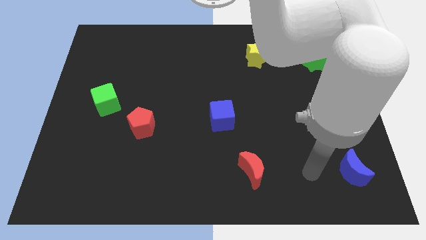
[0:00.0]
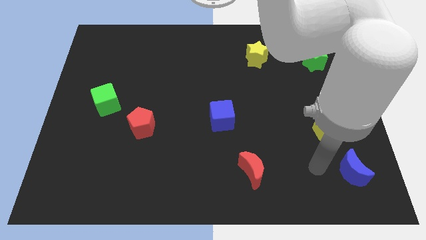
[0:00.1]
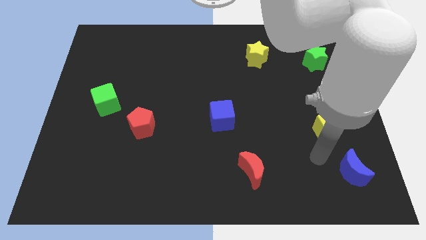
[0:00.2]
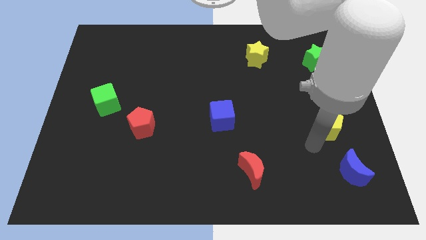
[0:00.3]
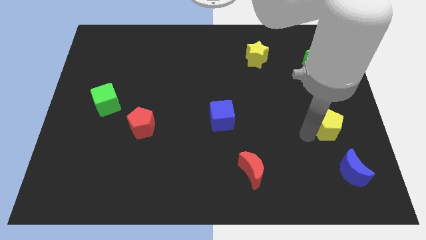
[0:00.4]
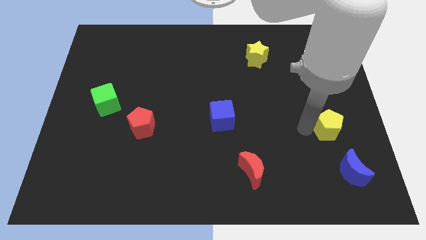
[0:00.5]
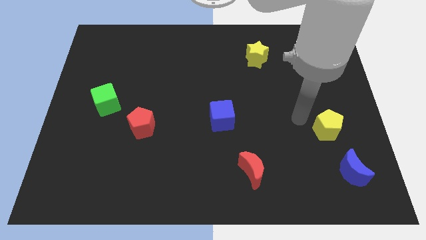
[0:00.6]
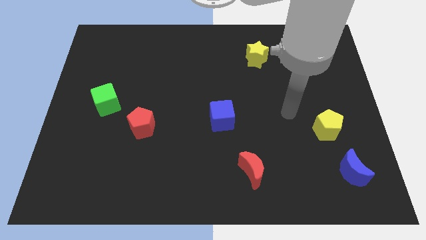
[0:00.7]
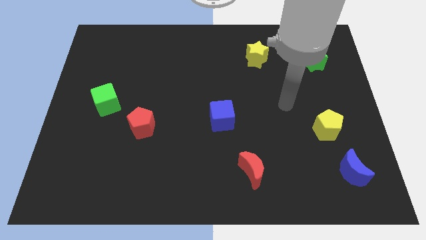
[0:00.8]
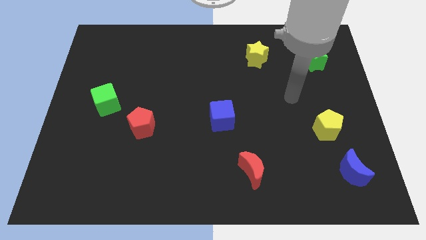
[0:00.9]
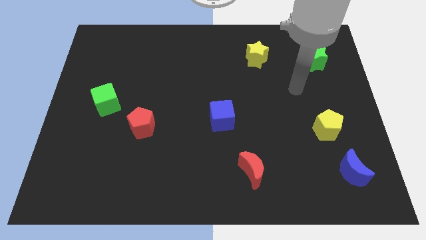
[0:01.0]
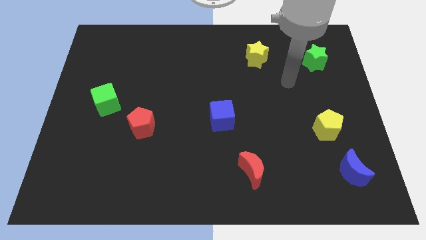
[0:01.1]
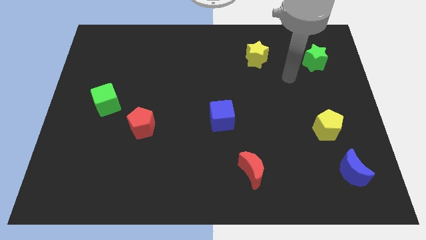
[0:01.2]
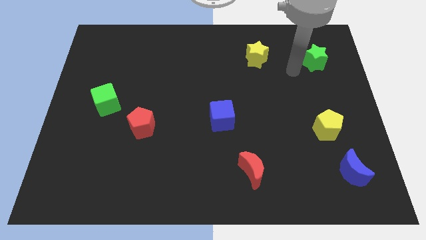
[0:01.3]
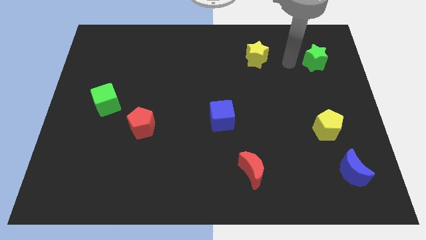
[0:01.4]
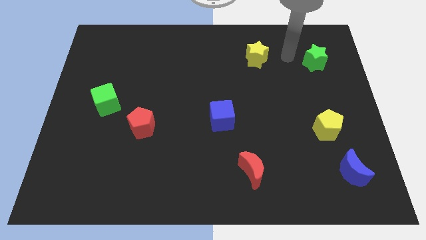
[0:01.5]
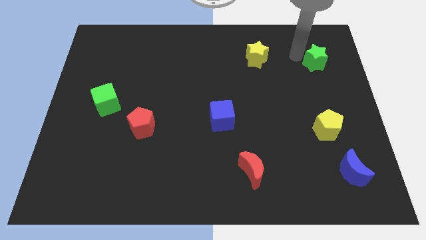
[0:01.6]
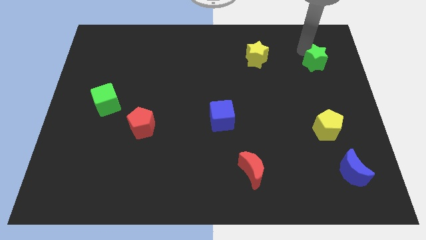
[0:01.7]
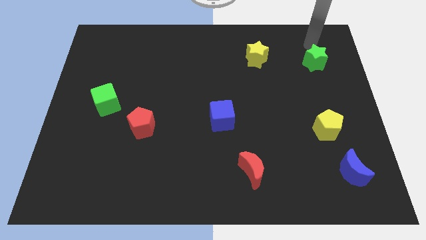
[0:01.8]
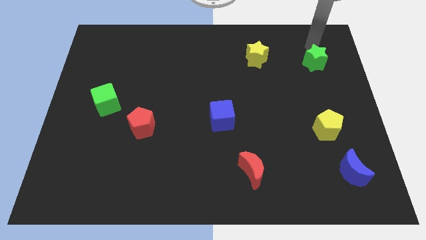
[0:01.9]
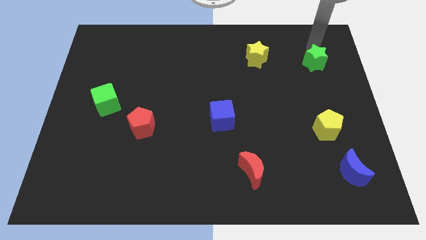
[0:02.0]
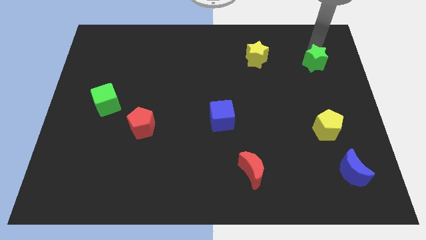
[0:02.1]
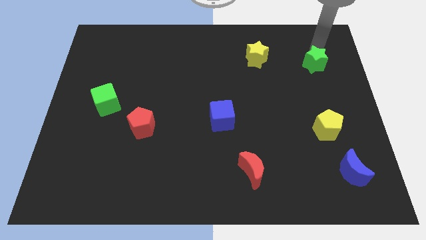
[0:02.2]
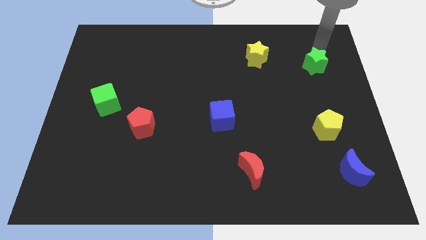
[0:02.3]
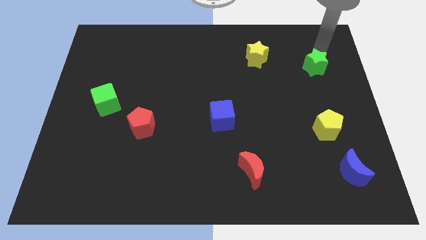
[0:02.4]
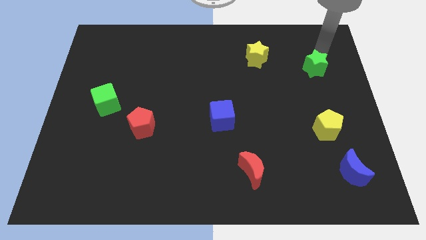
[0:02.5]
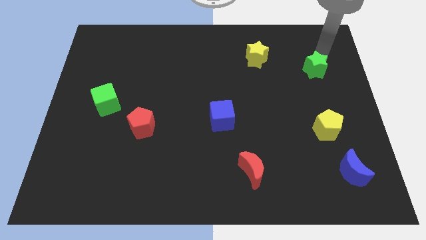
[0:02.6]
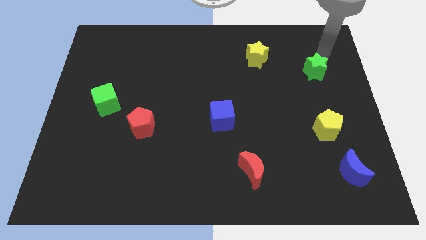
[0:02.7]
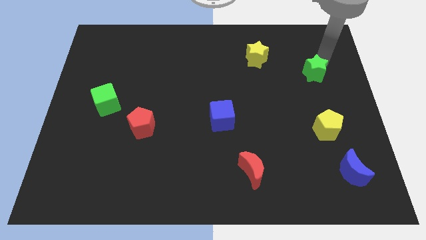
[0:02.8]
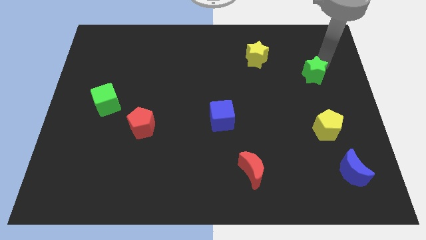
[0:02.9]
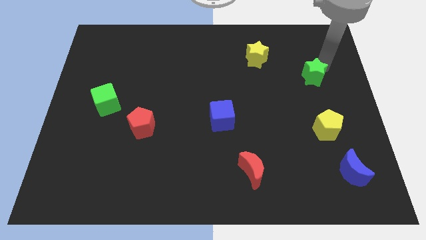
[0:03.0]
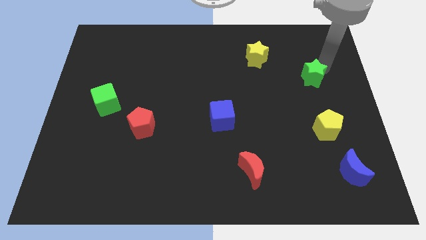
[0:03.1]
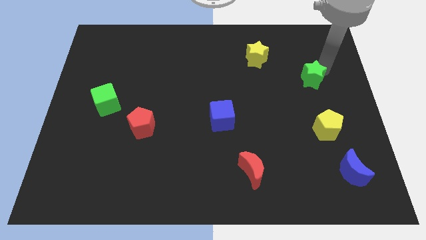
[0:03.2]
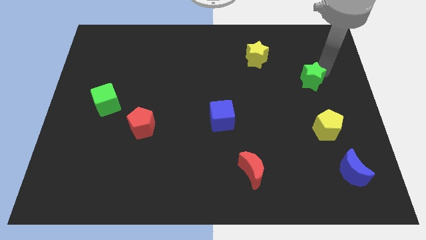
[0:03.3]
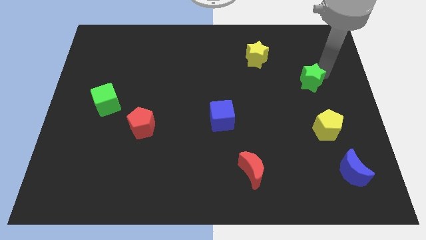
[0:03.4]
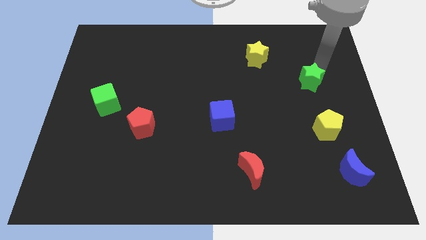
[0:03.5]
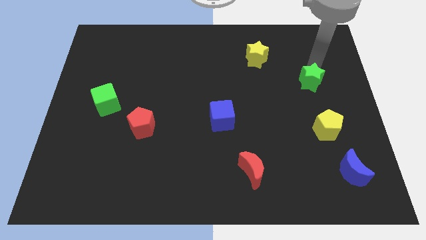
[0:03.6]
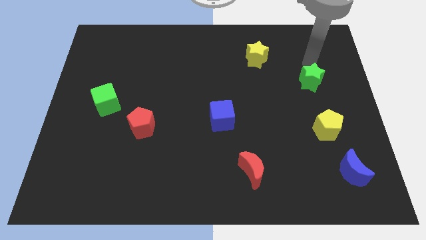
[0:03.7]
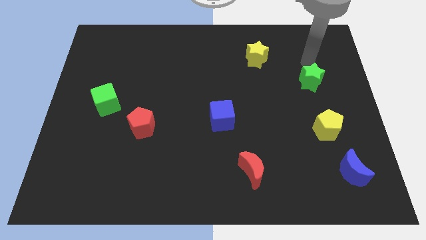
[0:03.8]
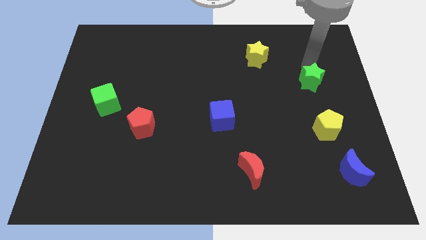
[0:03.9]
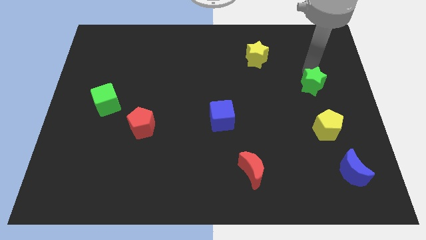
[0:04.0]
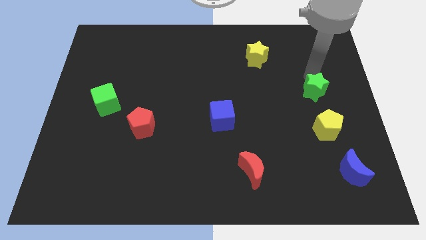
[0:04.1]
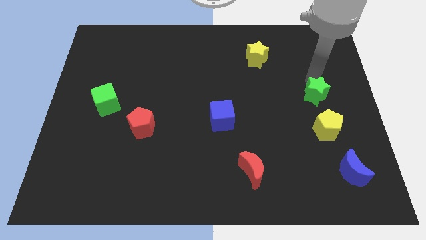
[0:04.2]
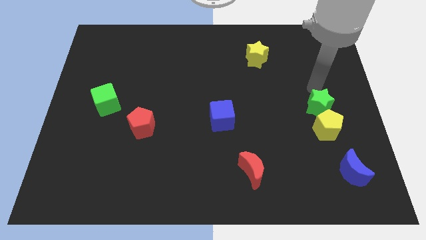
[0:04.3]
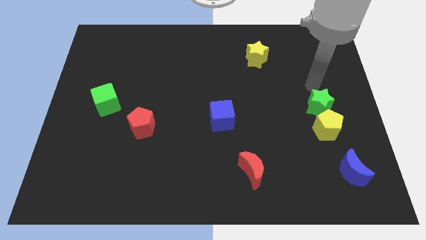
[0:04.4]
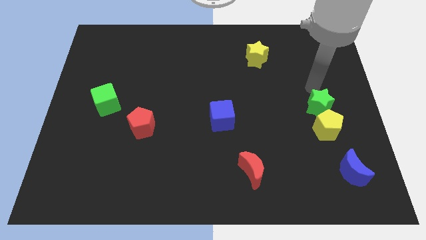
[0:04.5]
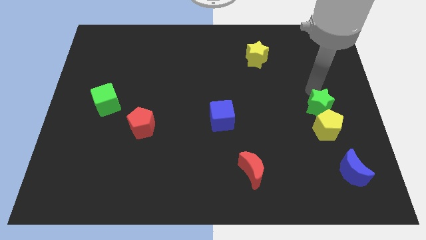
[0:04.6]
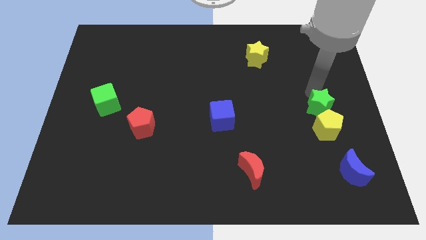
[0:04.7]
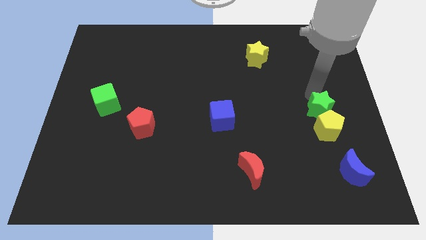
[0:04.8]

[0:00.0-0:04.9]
slide the green star towards the yellow pentagon

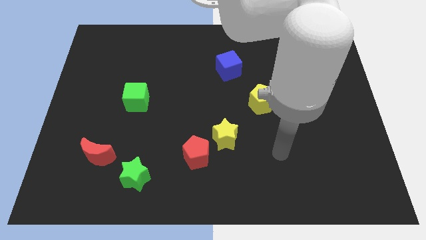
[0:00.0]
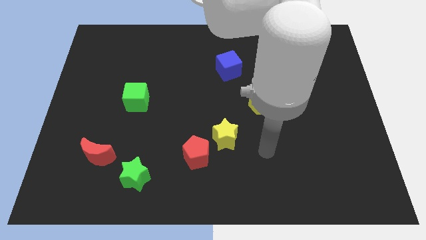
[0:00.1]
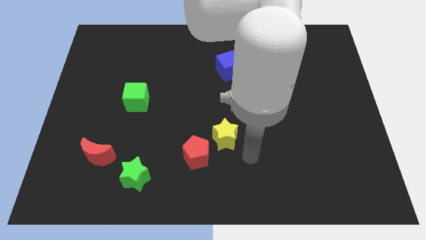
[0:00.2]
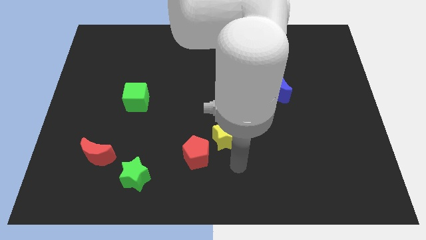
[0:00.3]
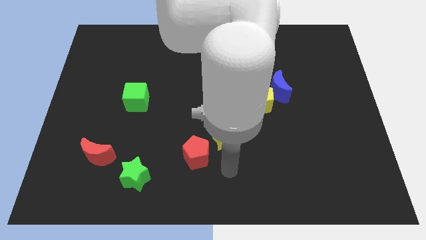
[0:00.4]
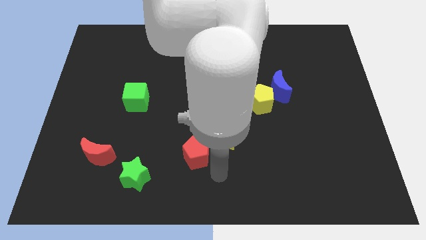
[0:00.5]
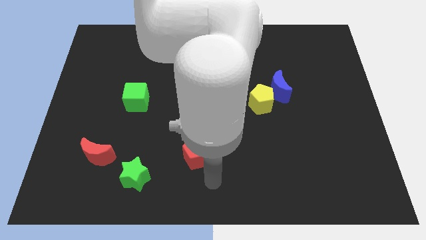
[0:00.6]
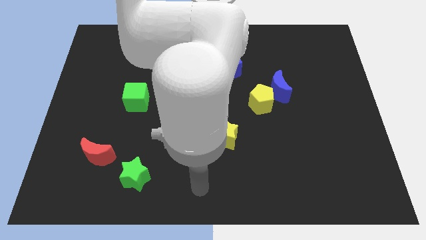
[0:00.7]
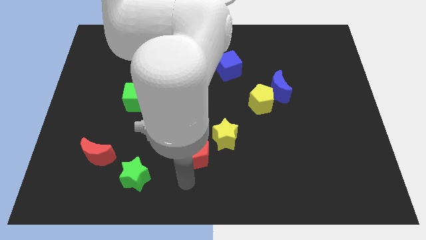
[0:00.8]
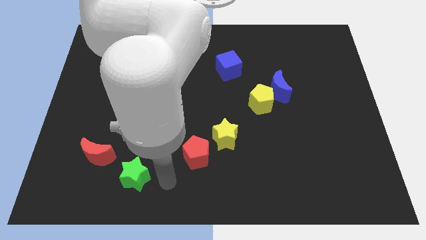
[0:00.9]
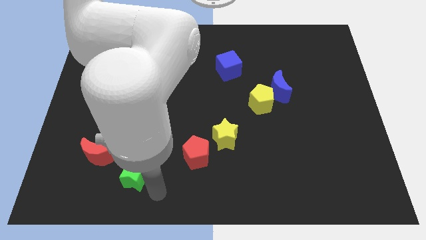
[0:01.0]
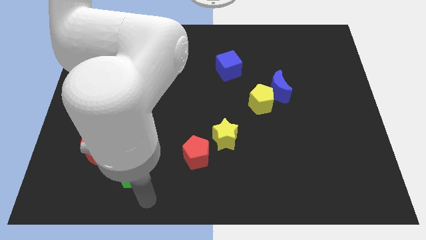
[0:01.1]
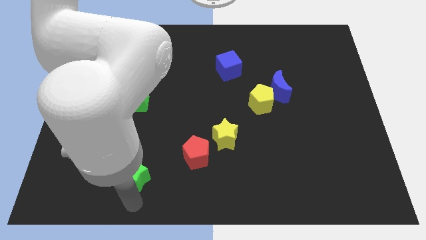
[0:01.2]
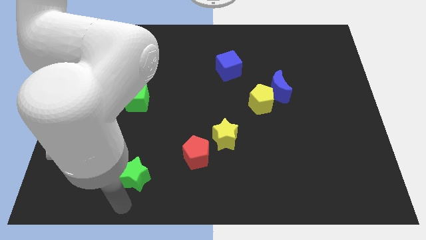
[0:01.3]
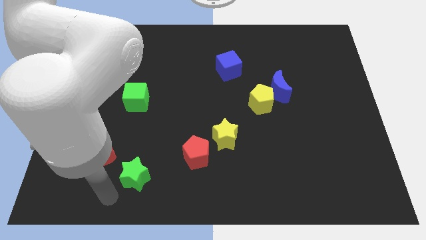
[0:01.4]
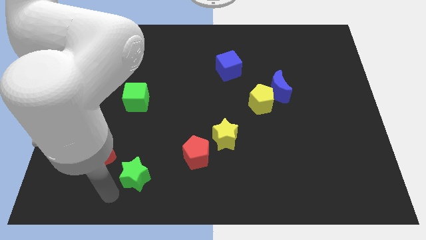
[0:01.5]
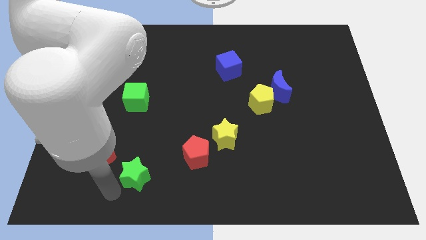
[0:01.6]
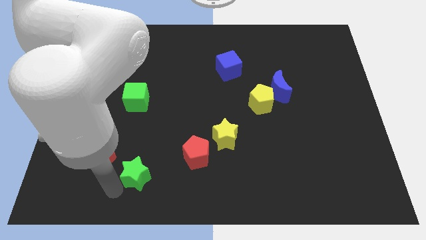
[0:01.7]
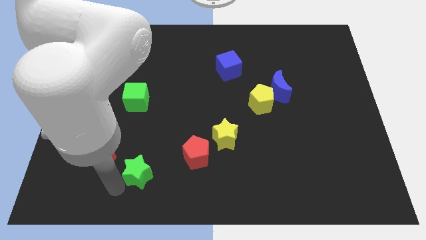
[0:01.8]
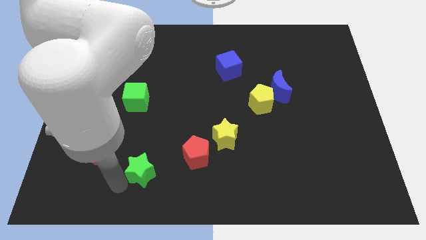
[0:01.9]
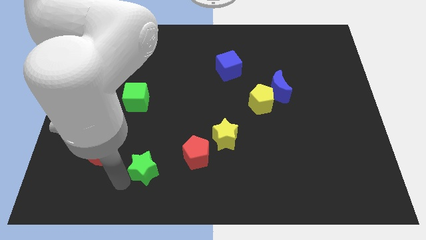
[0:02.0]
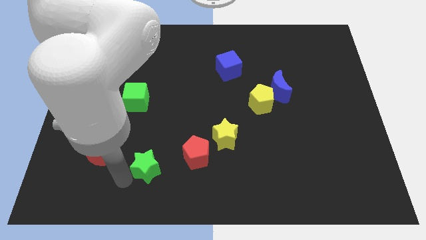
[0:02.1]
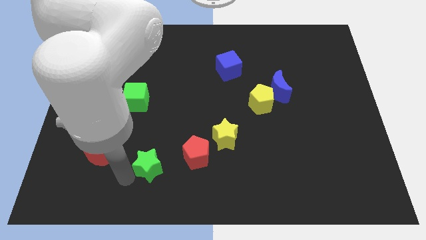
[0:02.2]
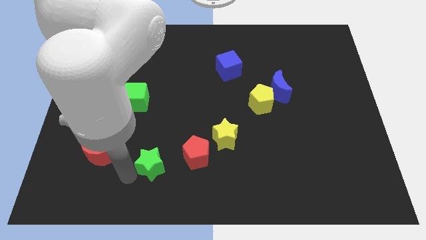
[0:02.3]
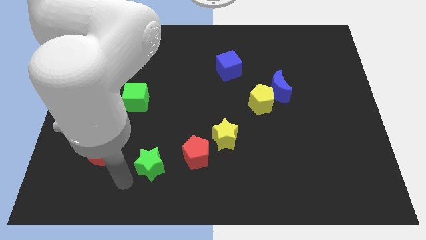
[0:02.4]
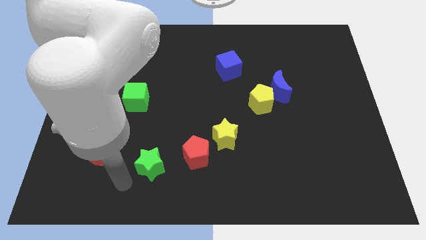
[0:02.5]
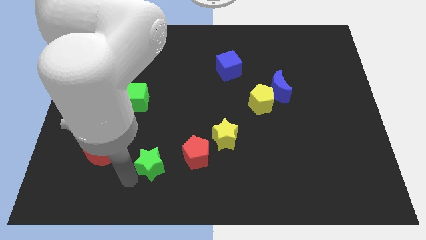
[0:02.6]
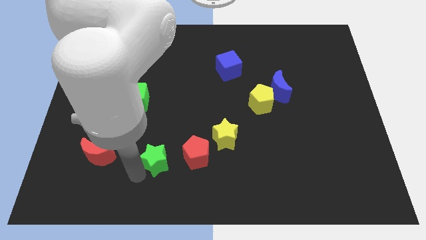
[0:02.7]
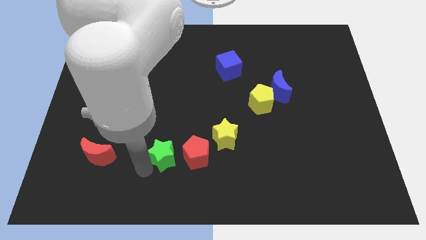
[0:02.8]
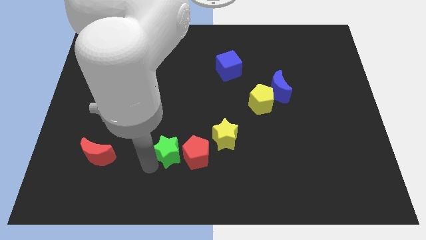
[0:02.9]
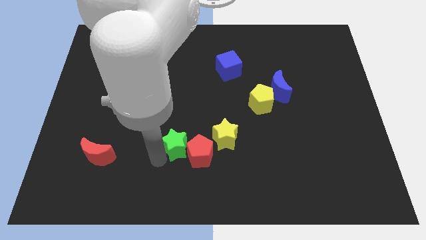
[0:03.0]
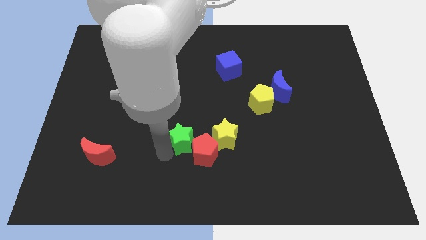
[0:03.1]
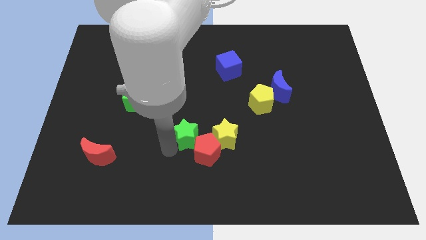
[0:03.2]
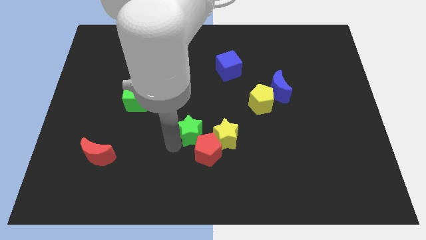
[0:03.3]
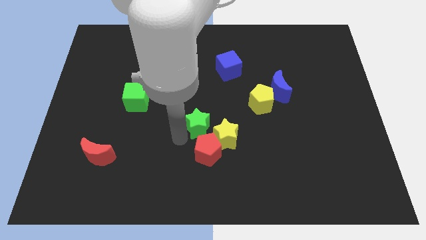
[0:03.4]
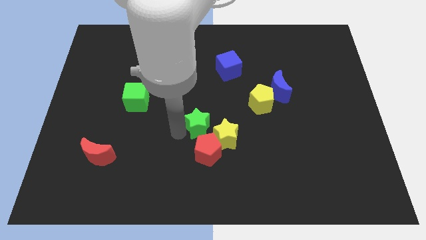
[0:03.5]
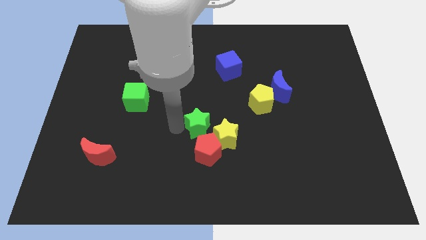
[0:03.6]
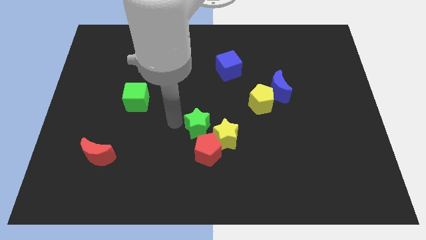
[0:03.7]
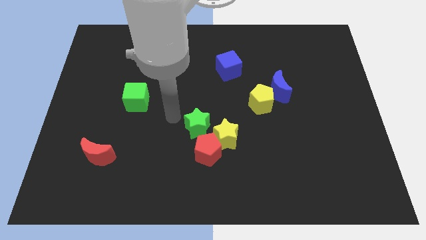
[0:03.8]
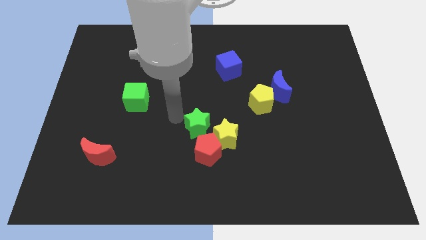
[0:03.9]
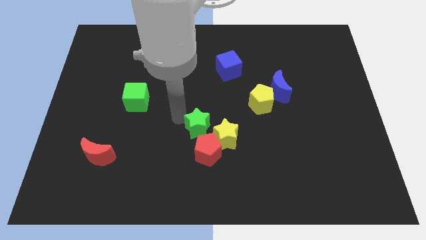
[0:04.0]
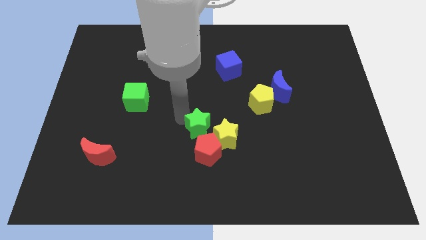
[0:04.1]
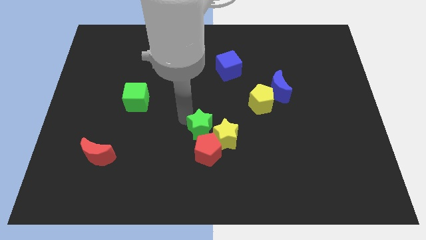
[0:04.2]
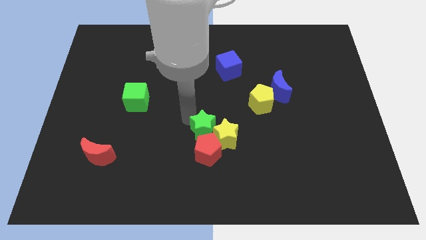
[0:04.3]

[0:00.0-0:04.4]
slide the green star towards the yellow star
